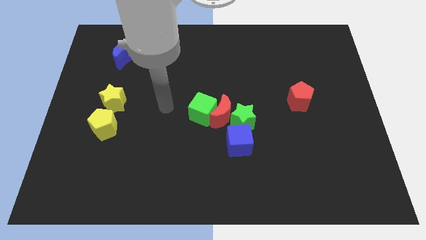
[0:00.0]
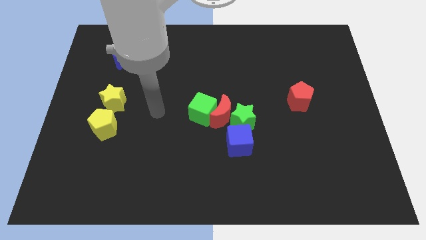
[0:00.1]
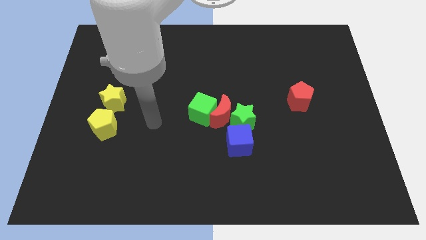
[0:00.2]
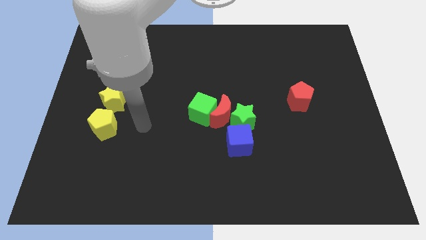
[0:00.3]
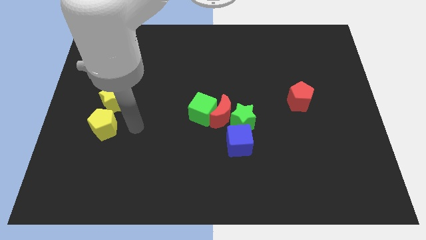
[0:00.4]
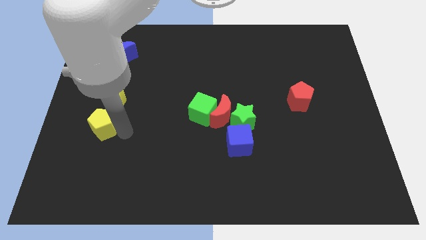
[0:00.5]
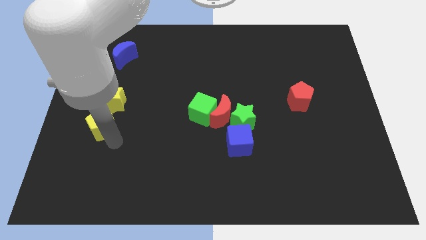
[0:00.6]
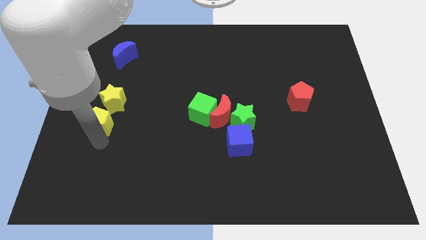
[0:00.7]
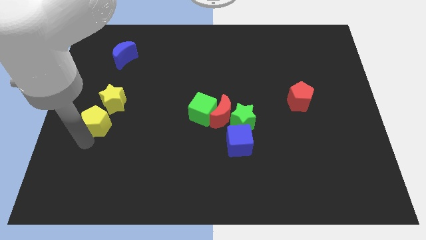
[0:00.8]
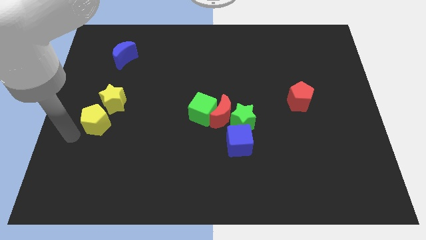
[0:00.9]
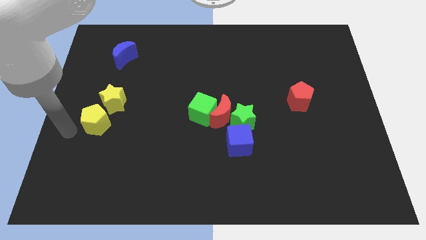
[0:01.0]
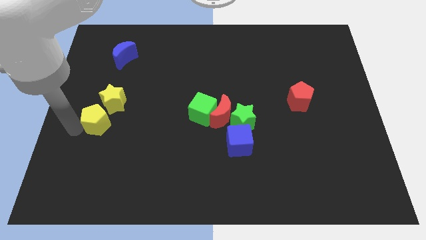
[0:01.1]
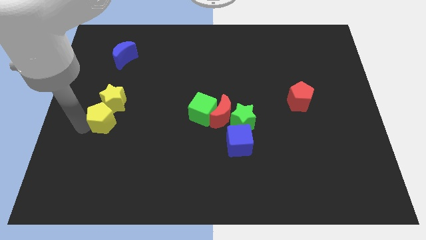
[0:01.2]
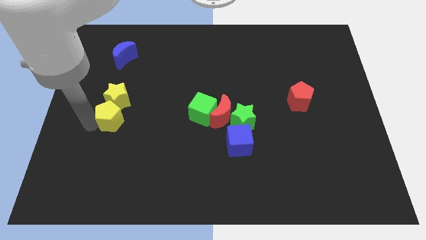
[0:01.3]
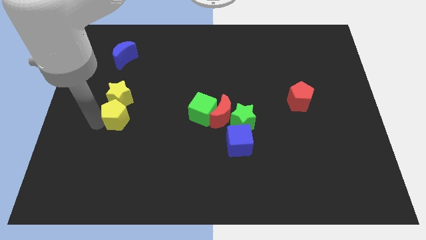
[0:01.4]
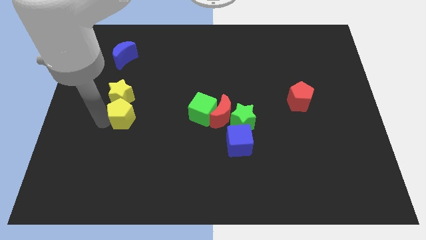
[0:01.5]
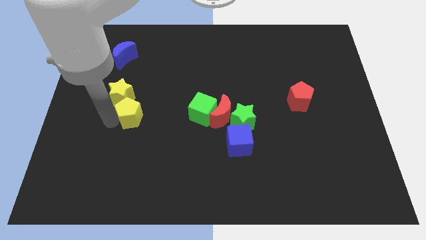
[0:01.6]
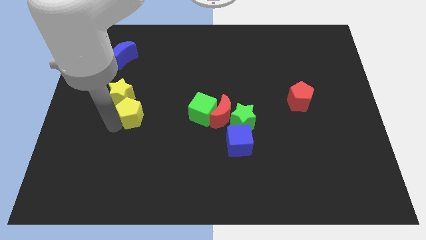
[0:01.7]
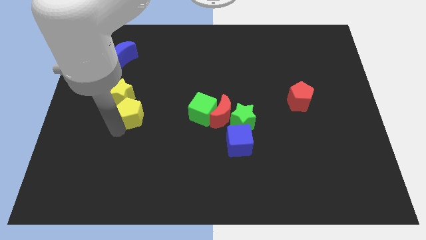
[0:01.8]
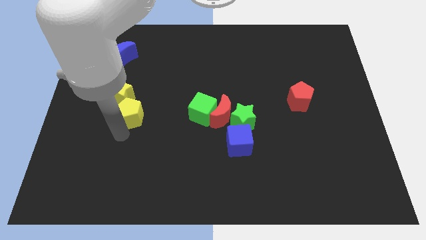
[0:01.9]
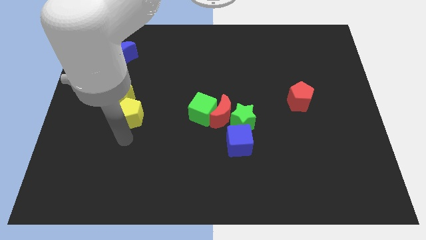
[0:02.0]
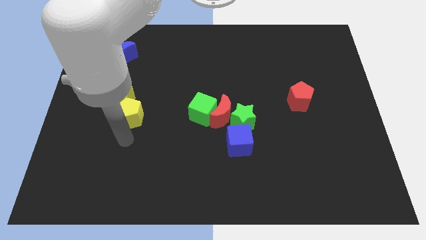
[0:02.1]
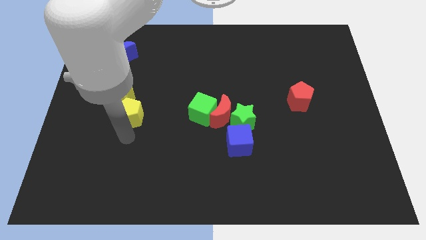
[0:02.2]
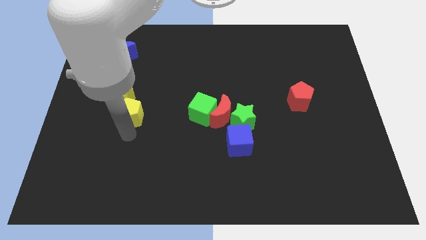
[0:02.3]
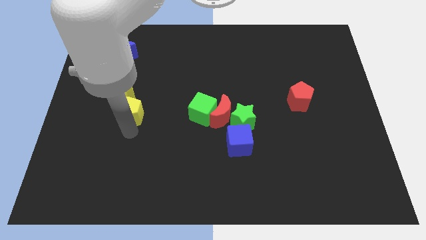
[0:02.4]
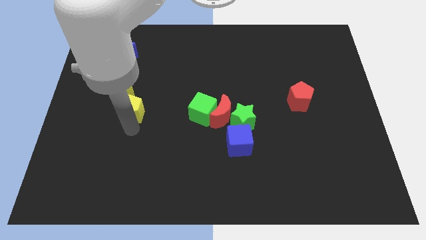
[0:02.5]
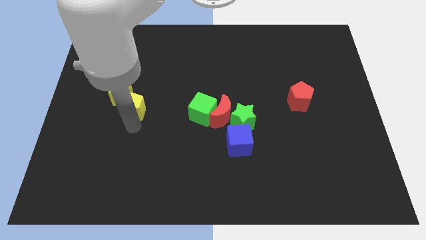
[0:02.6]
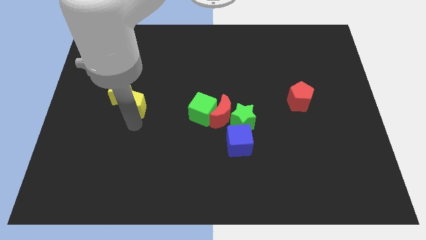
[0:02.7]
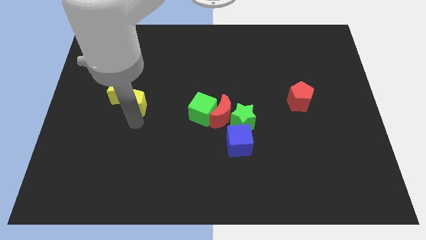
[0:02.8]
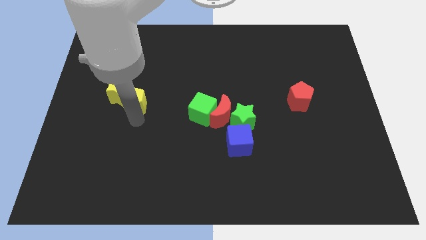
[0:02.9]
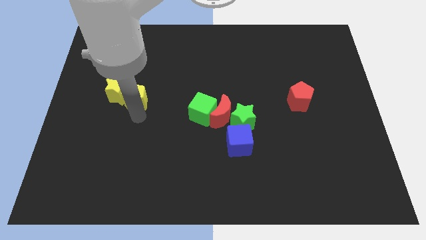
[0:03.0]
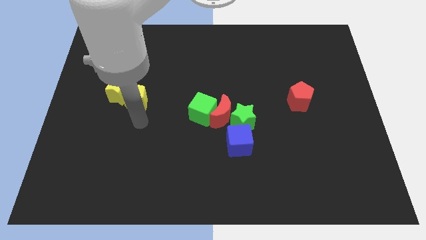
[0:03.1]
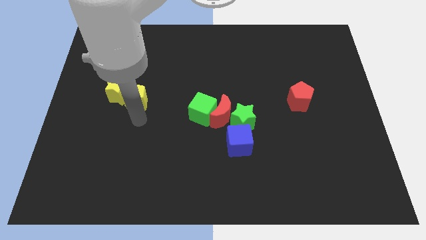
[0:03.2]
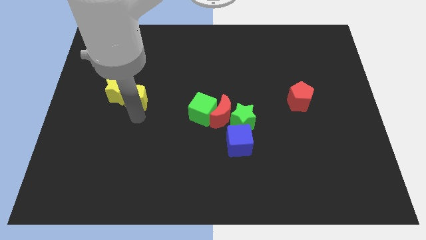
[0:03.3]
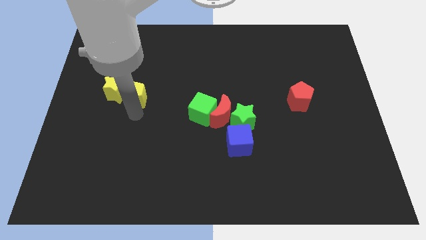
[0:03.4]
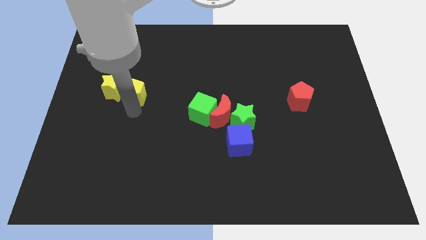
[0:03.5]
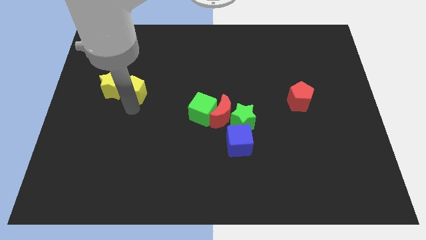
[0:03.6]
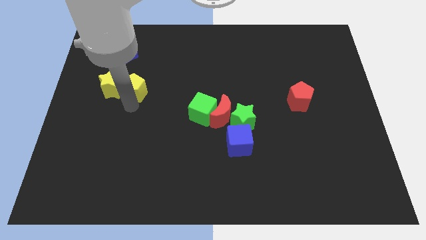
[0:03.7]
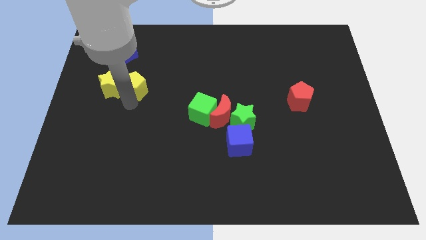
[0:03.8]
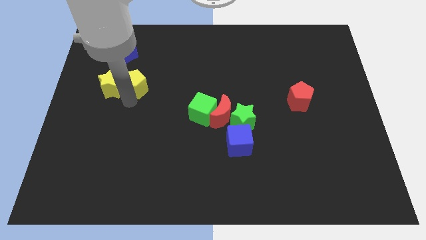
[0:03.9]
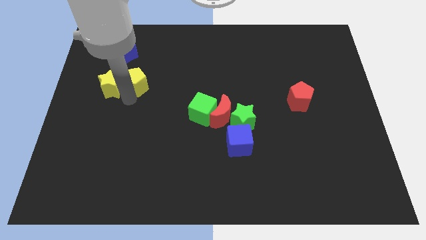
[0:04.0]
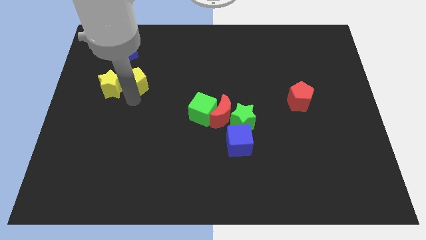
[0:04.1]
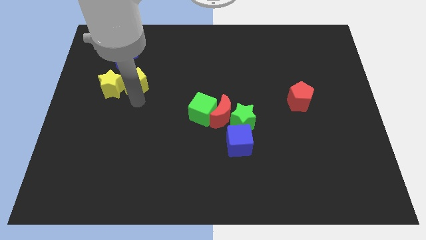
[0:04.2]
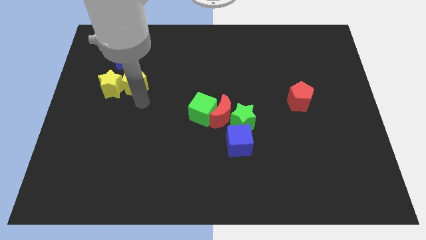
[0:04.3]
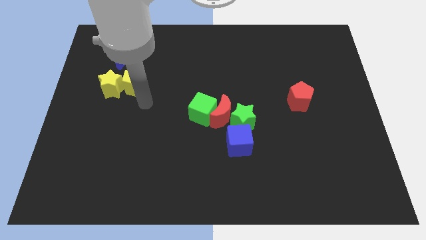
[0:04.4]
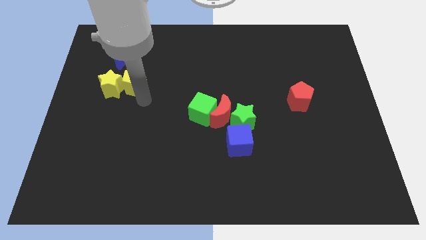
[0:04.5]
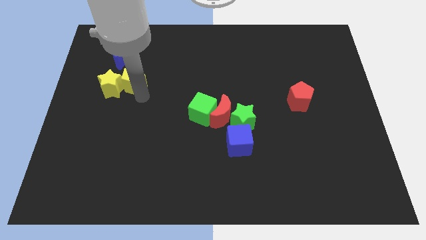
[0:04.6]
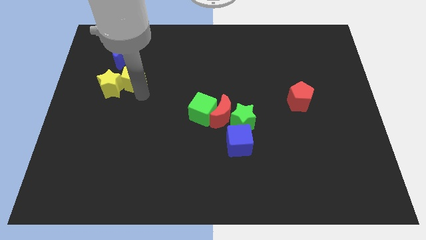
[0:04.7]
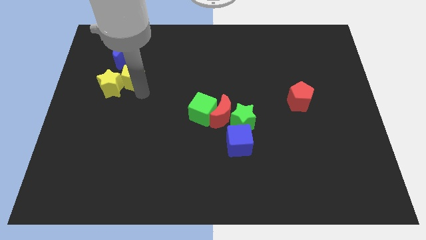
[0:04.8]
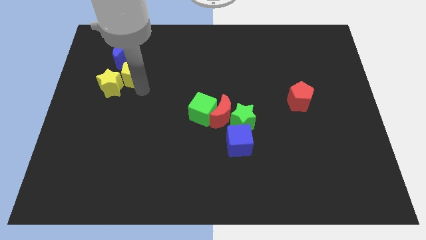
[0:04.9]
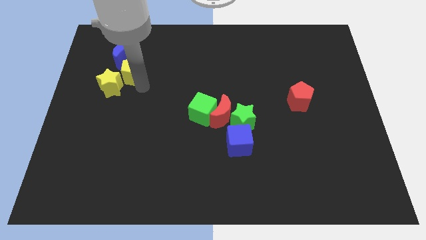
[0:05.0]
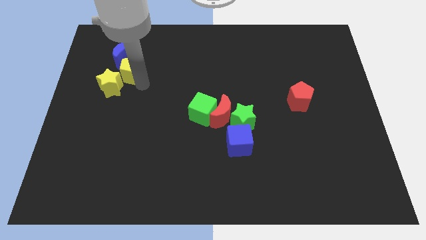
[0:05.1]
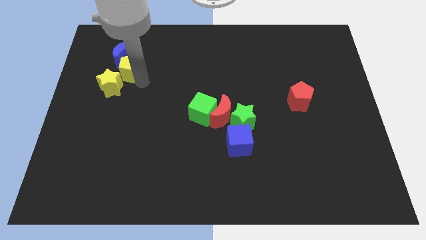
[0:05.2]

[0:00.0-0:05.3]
move the yellow pentagon close to the blue moon

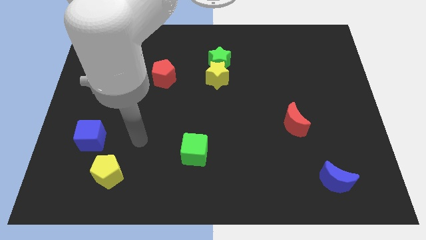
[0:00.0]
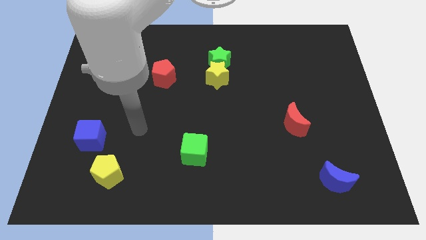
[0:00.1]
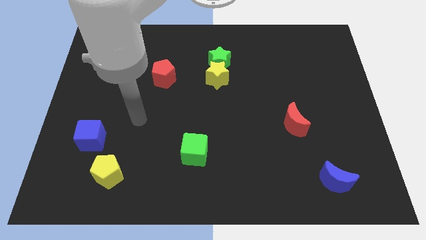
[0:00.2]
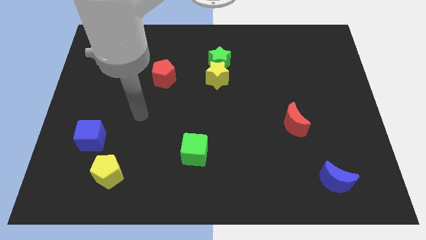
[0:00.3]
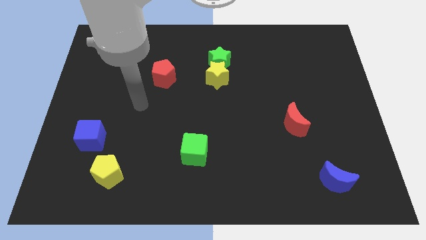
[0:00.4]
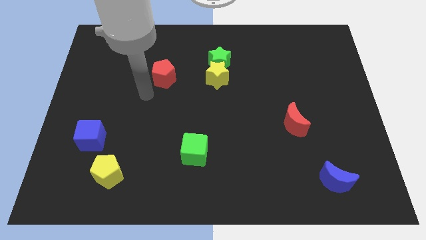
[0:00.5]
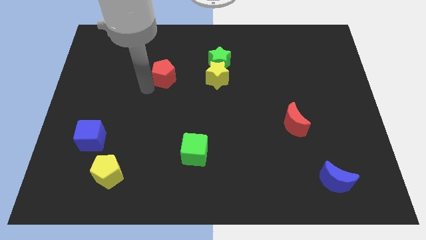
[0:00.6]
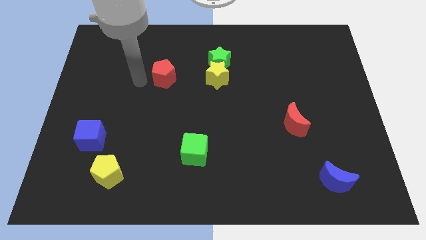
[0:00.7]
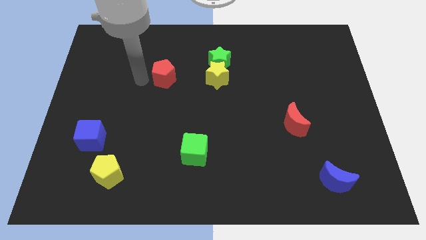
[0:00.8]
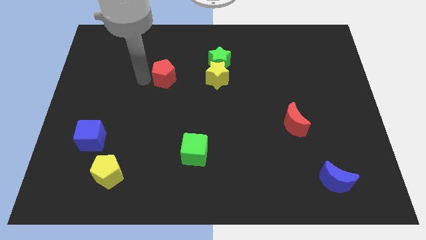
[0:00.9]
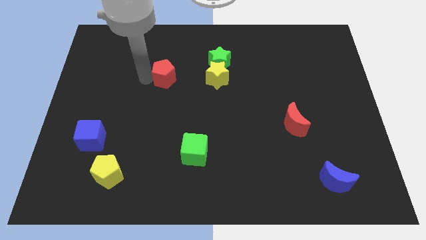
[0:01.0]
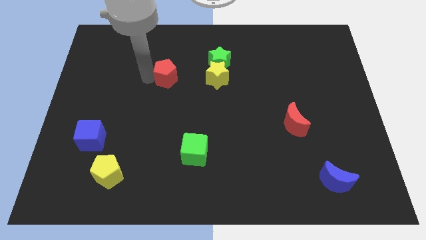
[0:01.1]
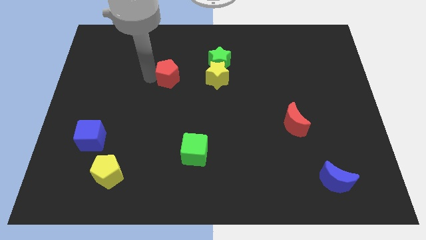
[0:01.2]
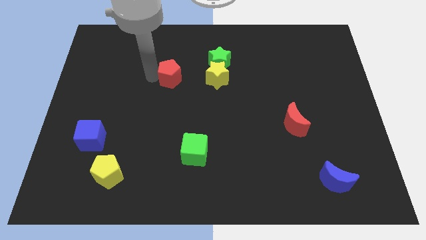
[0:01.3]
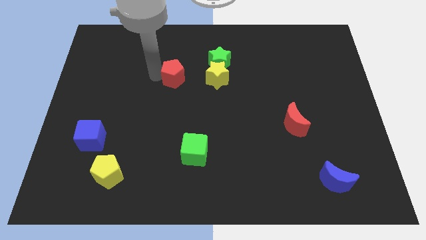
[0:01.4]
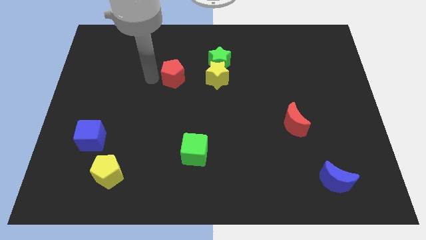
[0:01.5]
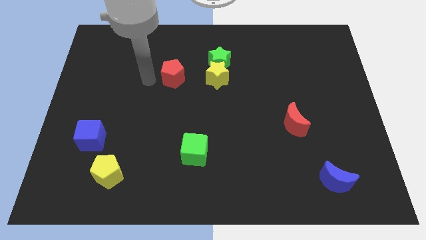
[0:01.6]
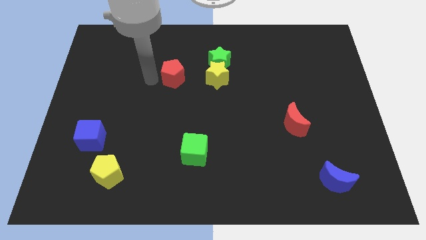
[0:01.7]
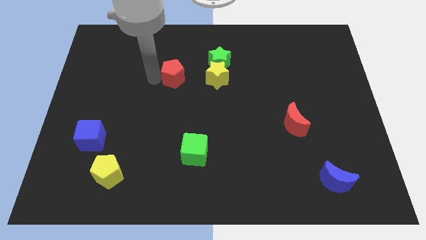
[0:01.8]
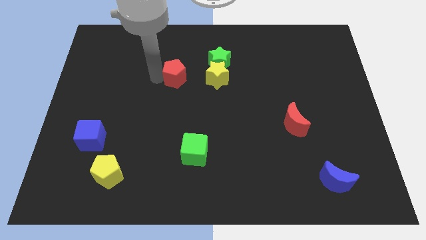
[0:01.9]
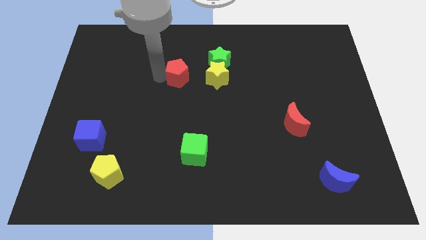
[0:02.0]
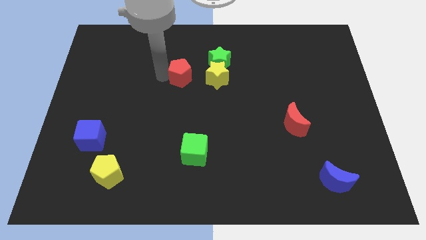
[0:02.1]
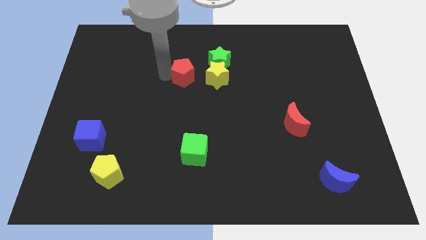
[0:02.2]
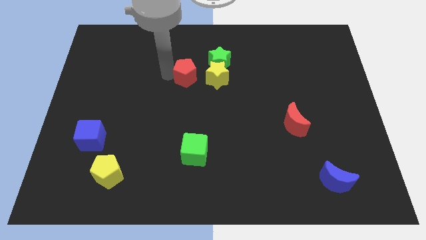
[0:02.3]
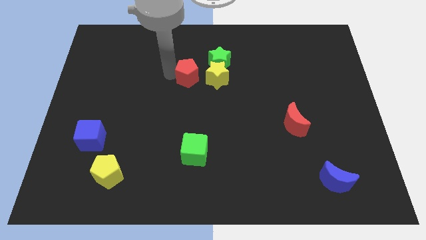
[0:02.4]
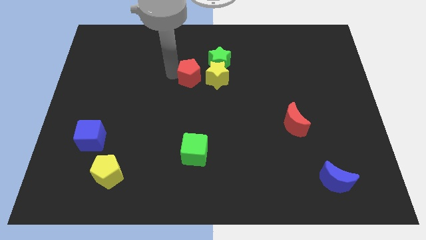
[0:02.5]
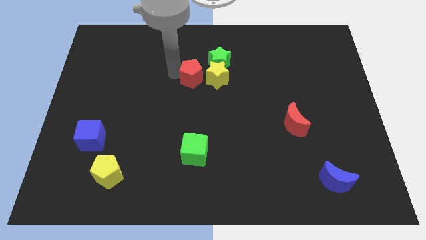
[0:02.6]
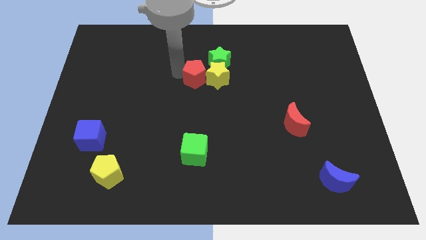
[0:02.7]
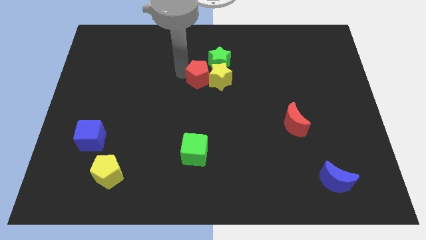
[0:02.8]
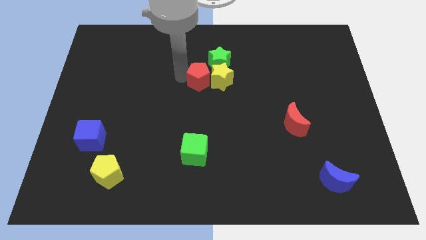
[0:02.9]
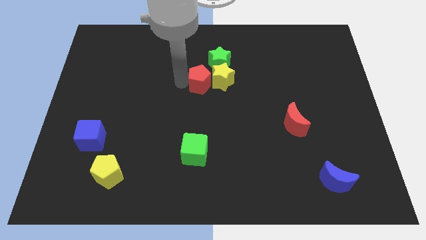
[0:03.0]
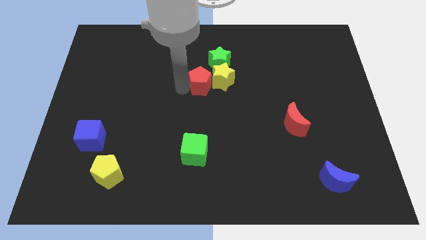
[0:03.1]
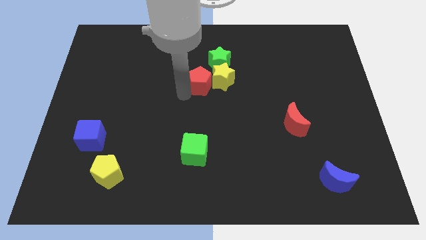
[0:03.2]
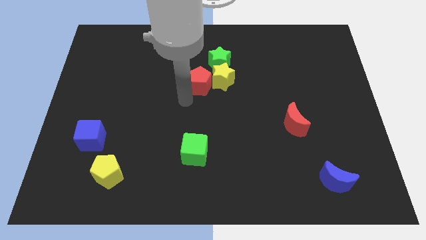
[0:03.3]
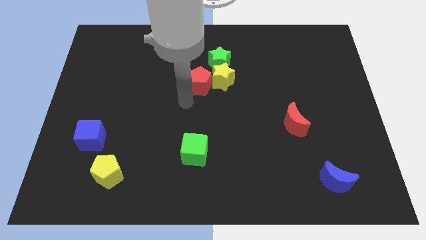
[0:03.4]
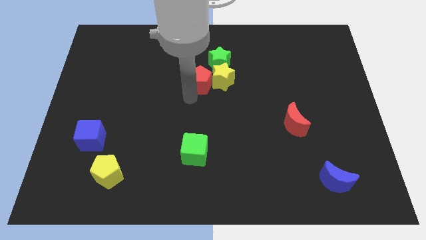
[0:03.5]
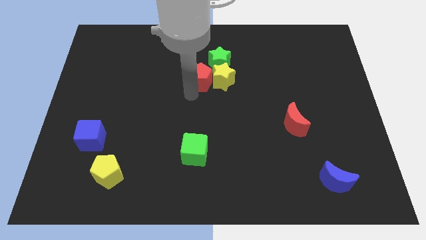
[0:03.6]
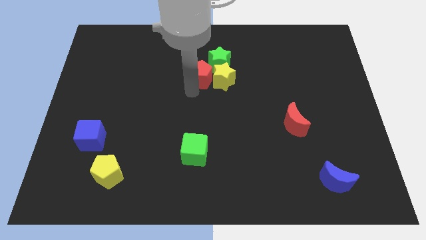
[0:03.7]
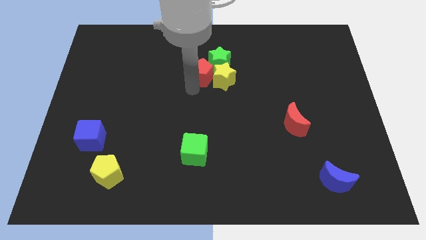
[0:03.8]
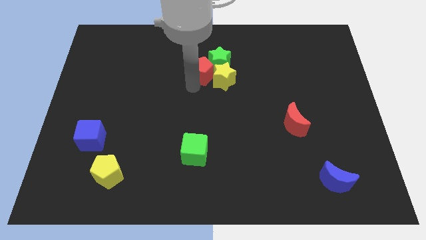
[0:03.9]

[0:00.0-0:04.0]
slide the red pentagon towards the green star
